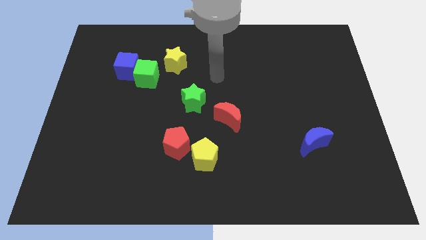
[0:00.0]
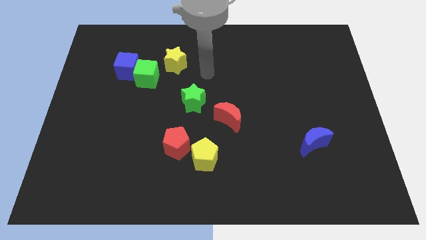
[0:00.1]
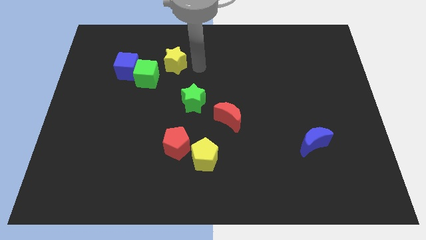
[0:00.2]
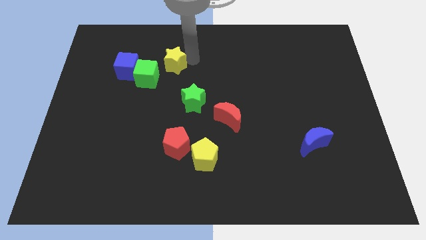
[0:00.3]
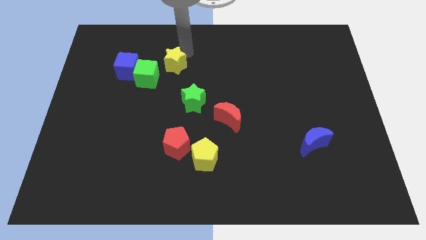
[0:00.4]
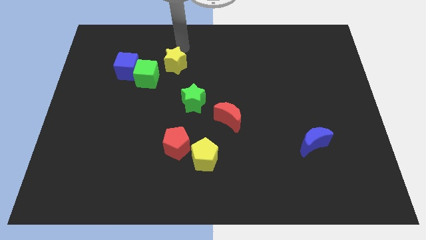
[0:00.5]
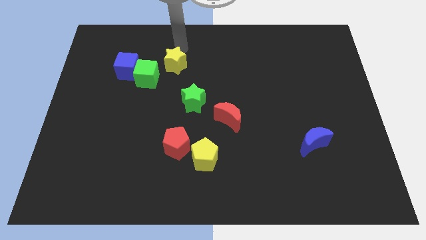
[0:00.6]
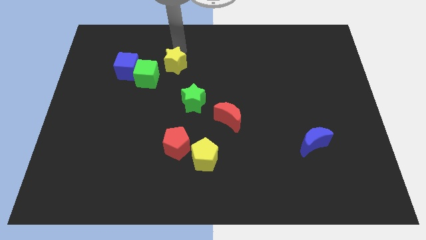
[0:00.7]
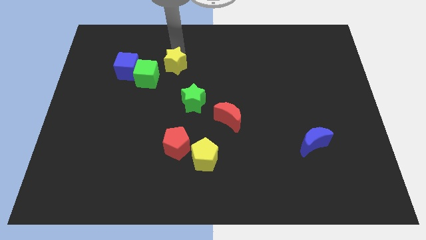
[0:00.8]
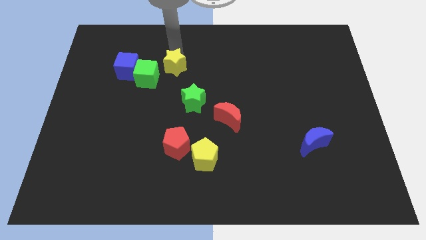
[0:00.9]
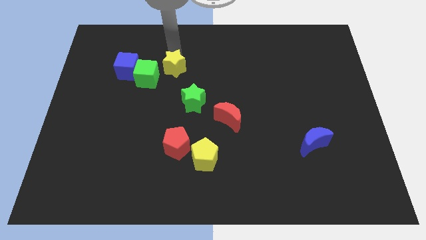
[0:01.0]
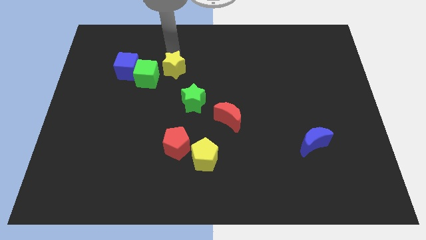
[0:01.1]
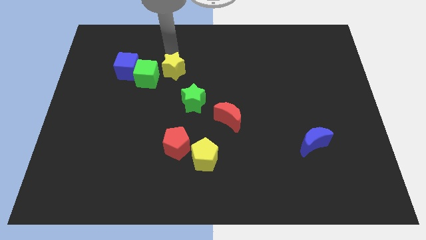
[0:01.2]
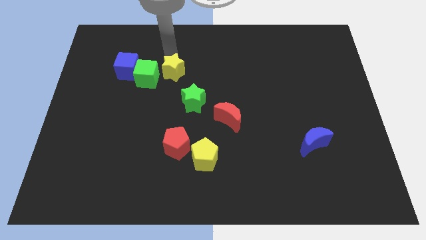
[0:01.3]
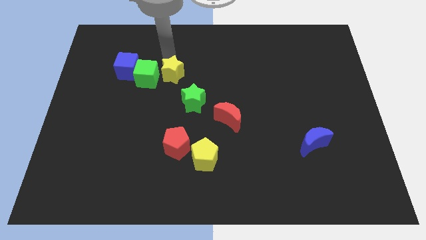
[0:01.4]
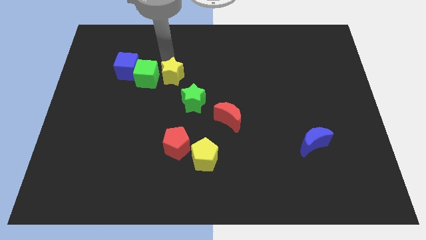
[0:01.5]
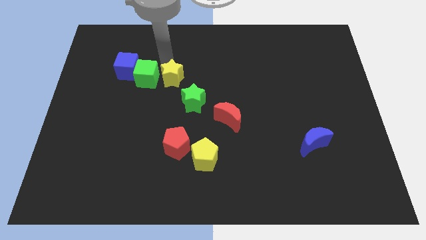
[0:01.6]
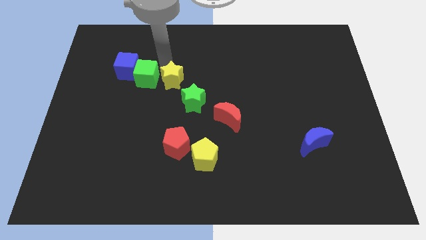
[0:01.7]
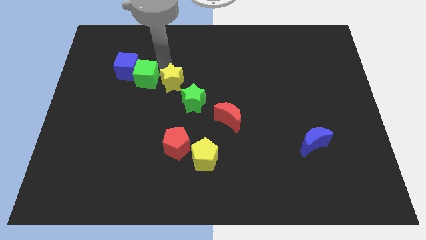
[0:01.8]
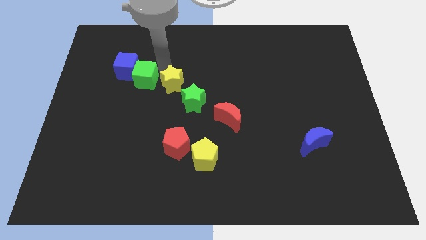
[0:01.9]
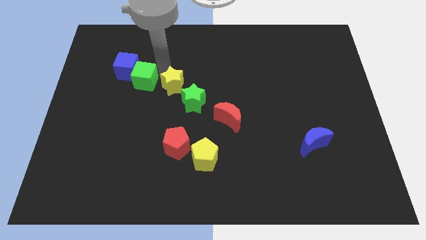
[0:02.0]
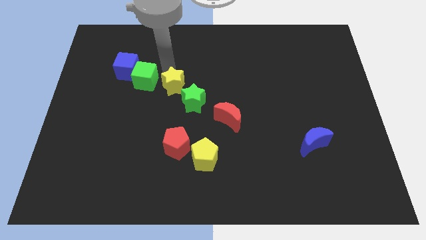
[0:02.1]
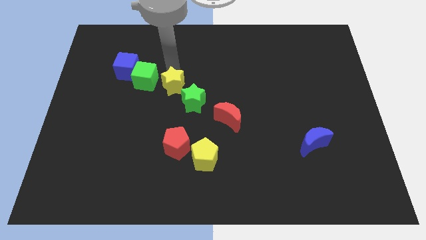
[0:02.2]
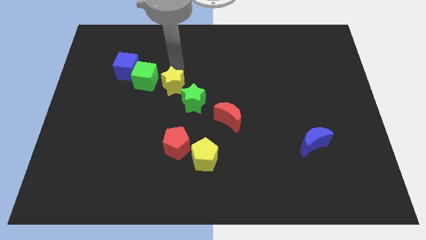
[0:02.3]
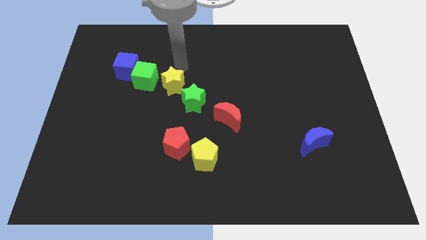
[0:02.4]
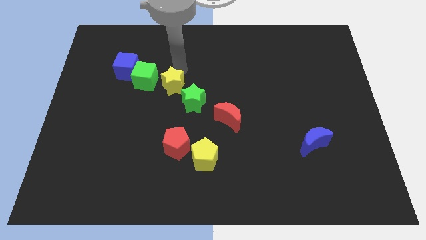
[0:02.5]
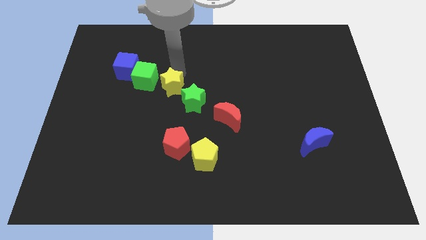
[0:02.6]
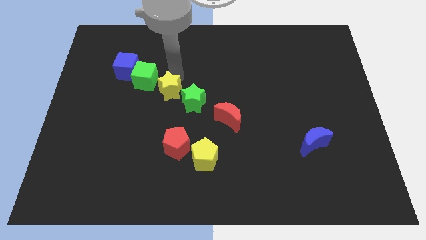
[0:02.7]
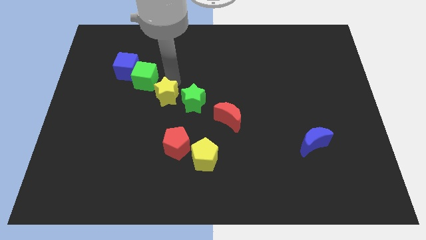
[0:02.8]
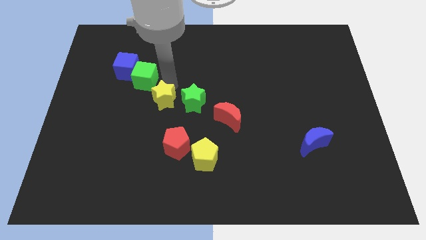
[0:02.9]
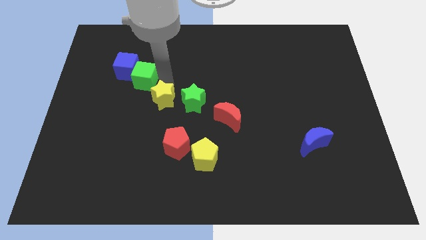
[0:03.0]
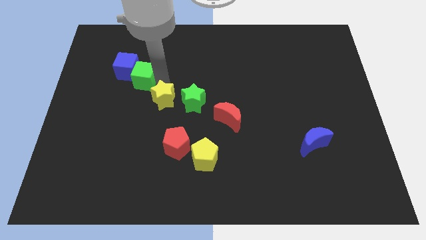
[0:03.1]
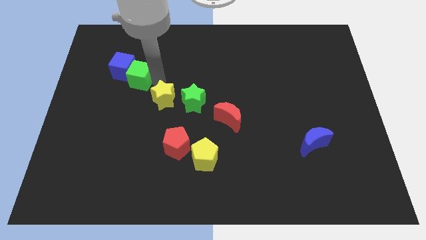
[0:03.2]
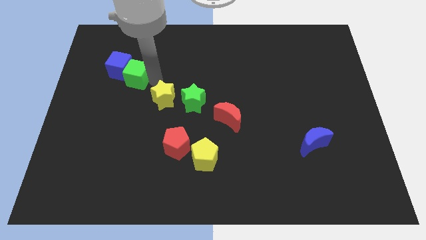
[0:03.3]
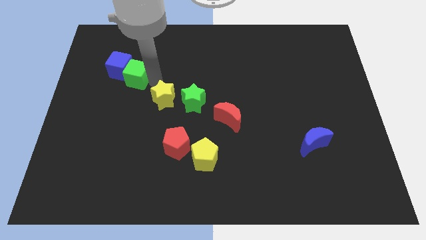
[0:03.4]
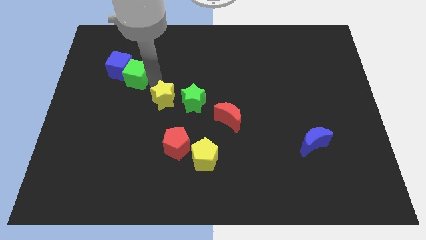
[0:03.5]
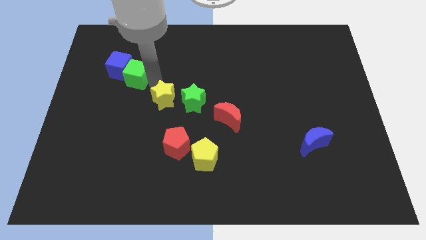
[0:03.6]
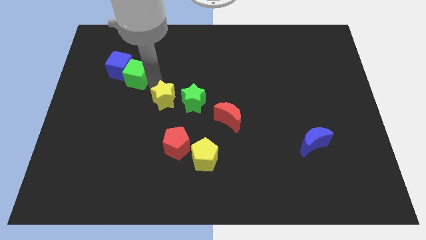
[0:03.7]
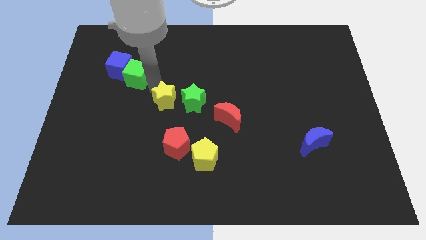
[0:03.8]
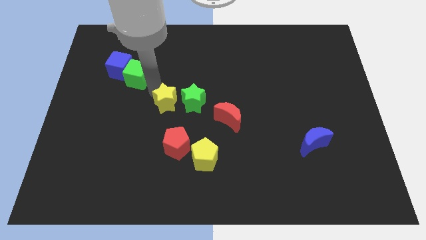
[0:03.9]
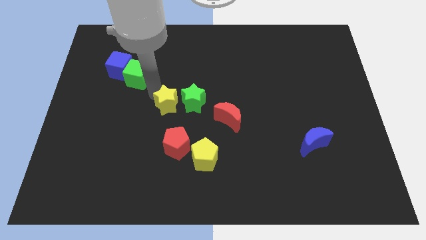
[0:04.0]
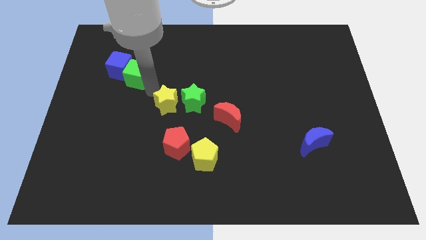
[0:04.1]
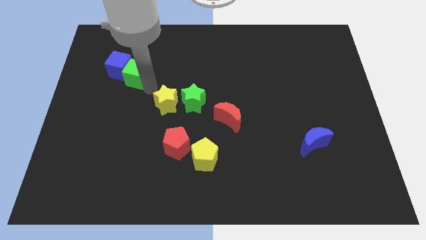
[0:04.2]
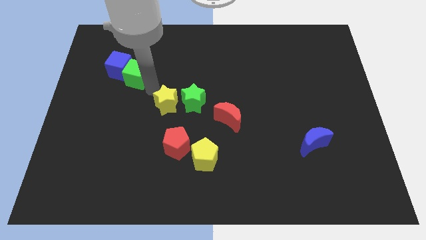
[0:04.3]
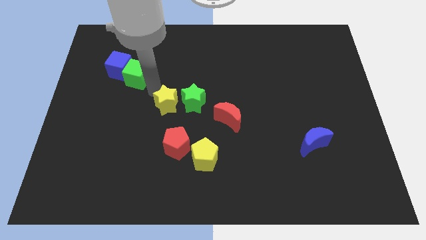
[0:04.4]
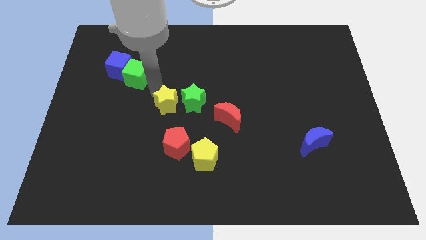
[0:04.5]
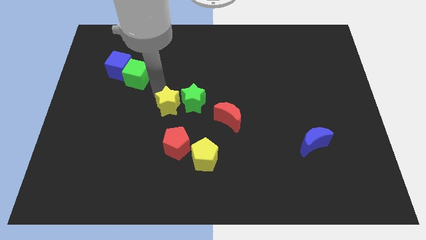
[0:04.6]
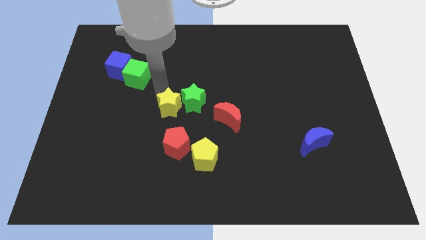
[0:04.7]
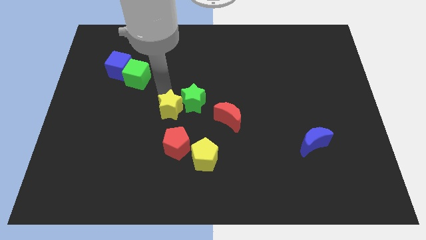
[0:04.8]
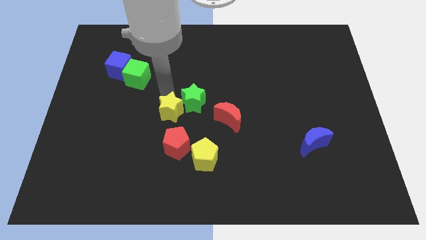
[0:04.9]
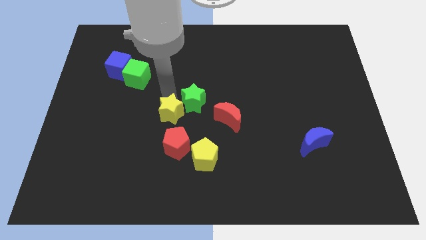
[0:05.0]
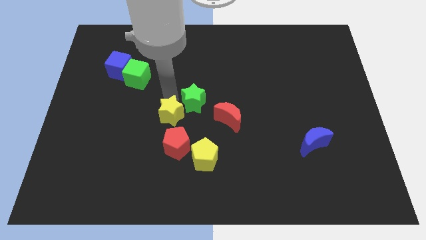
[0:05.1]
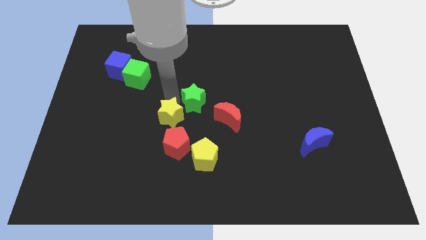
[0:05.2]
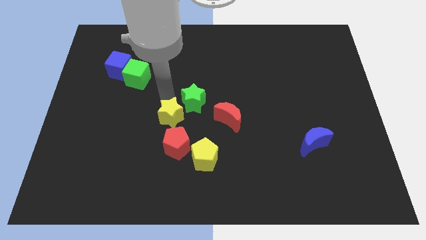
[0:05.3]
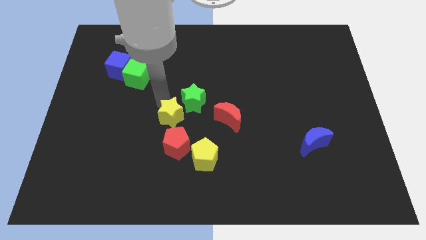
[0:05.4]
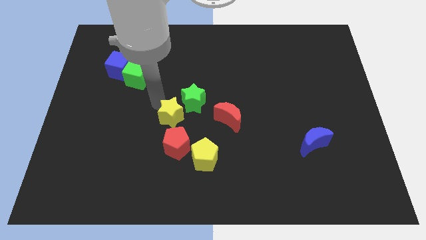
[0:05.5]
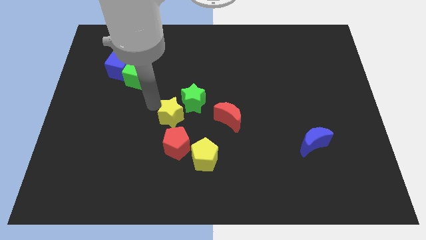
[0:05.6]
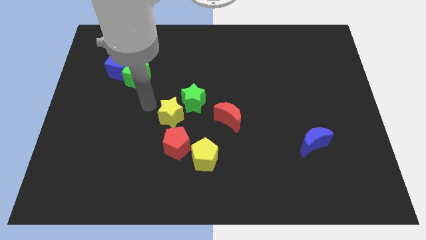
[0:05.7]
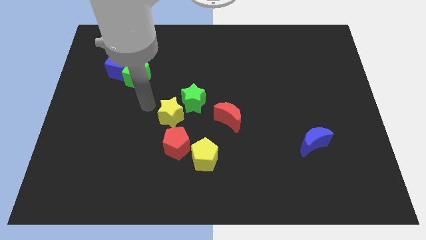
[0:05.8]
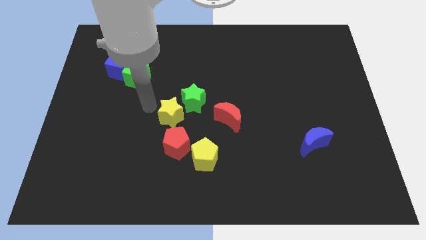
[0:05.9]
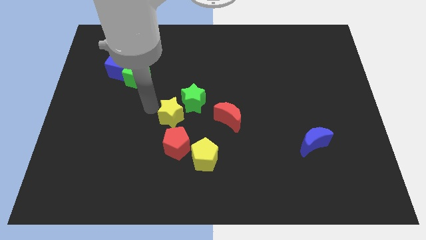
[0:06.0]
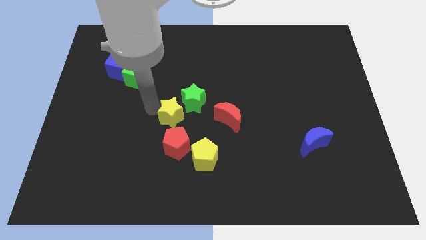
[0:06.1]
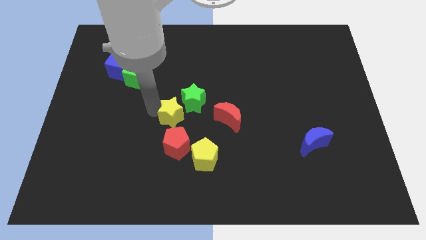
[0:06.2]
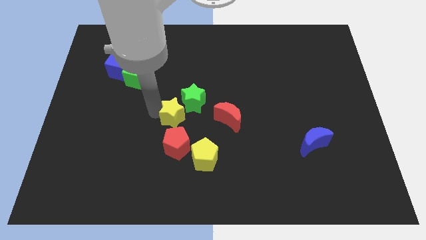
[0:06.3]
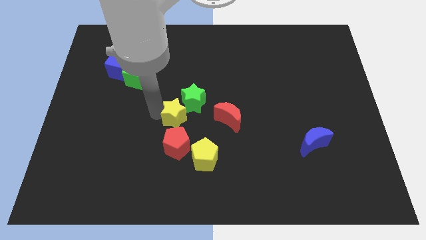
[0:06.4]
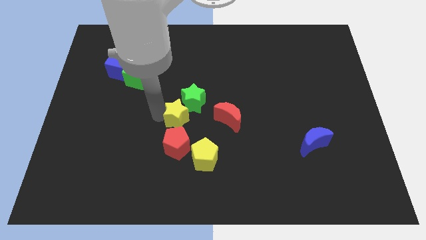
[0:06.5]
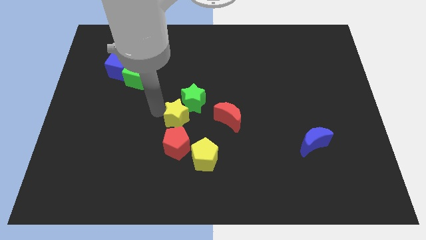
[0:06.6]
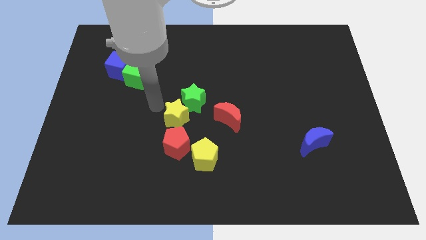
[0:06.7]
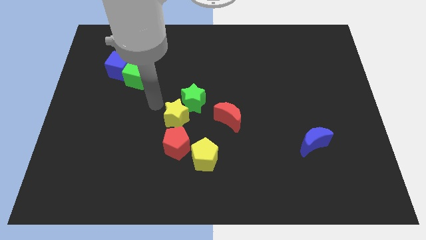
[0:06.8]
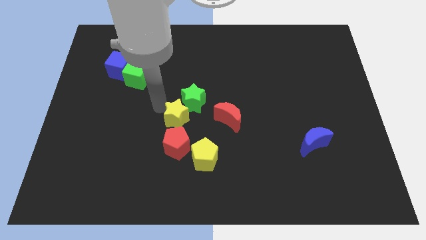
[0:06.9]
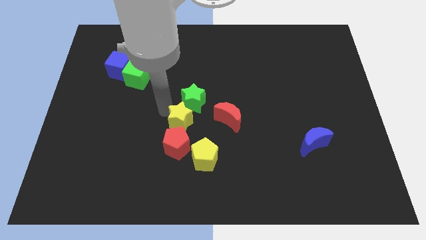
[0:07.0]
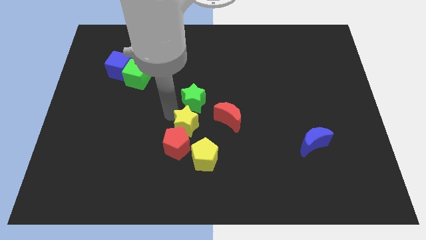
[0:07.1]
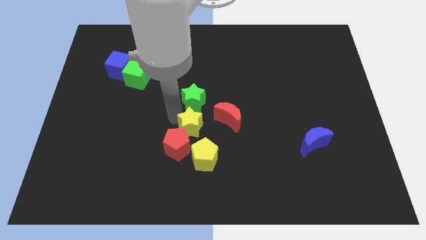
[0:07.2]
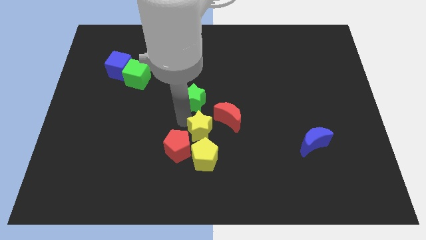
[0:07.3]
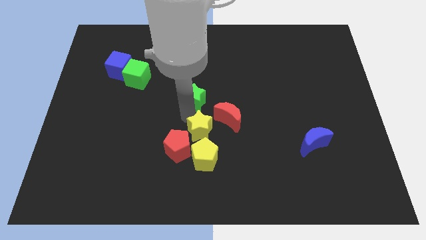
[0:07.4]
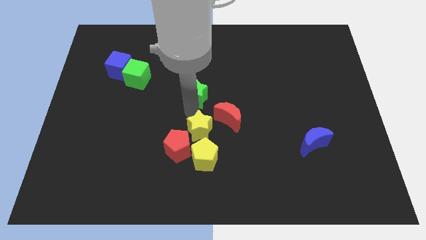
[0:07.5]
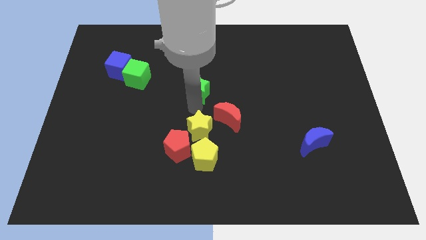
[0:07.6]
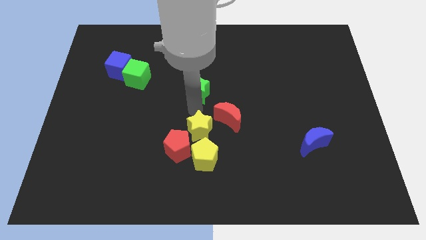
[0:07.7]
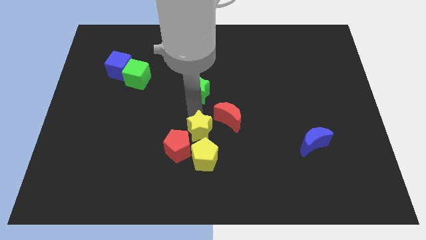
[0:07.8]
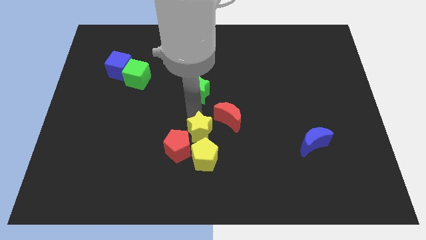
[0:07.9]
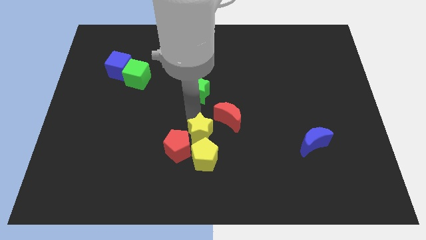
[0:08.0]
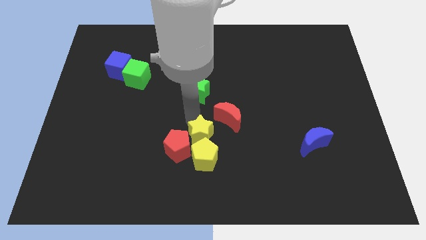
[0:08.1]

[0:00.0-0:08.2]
push the yellow star next to the yellow pentagon
